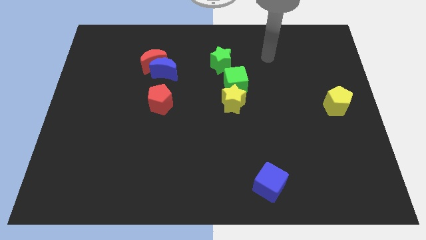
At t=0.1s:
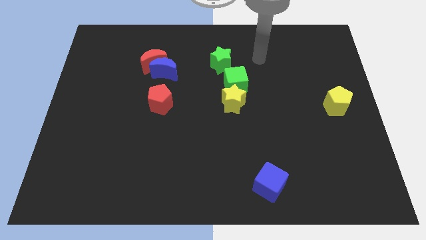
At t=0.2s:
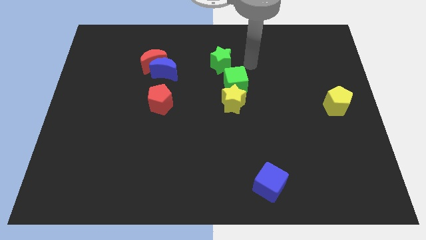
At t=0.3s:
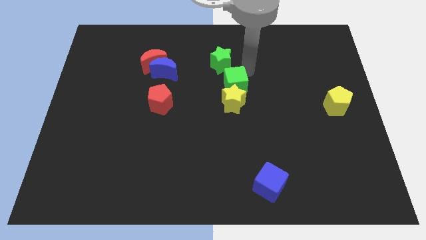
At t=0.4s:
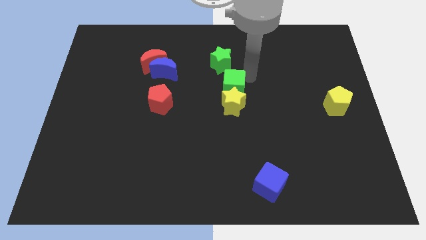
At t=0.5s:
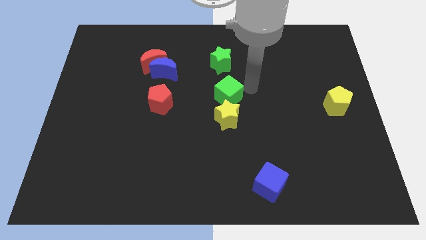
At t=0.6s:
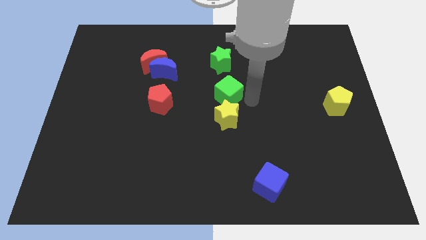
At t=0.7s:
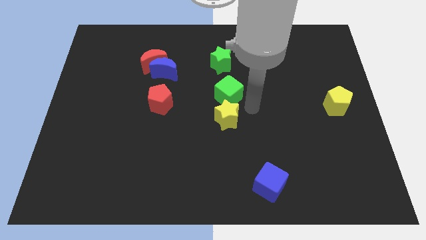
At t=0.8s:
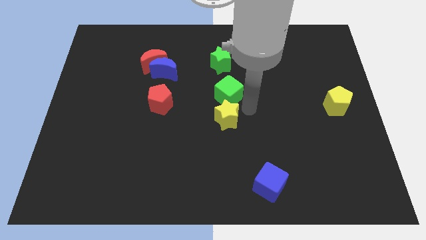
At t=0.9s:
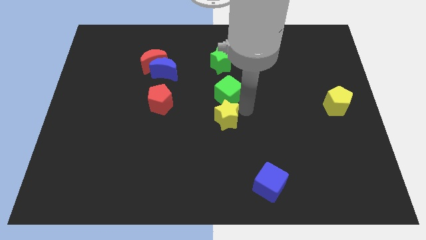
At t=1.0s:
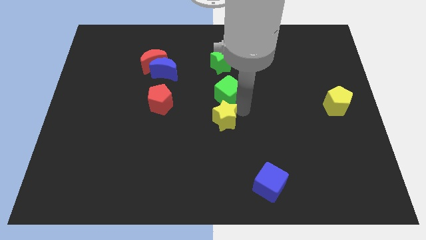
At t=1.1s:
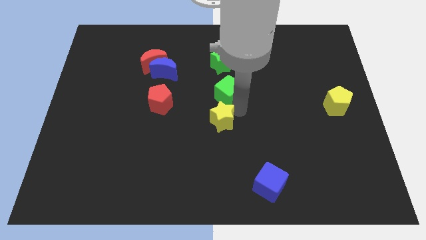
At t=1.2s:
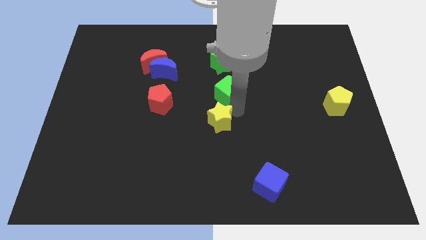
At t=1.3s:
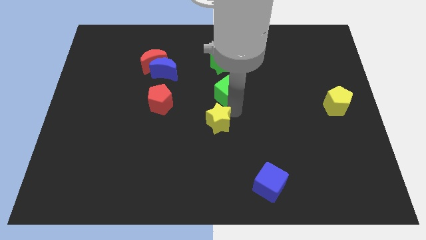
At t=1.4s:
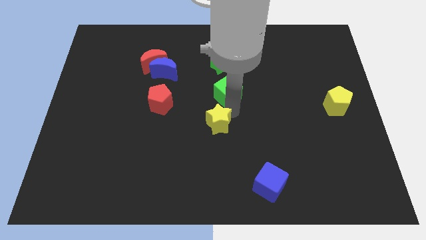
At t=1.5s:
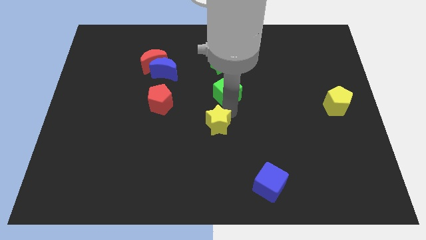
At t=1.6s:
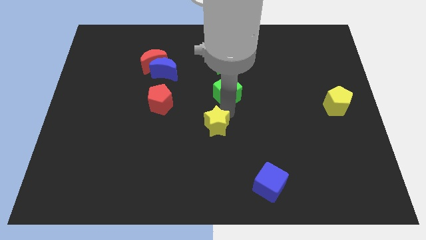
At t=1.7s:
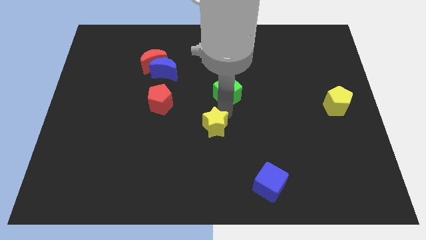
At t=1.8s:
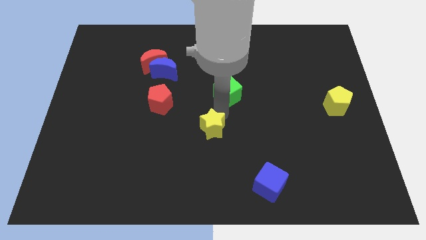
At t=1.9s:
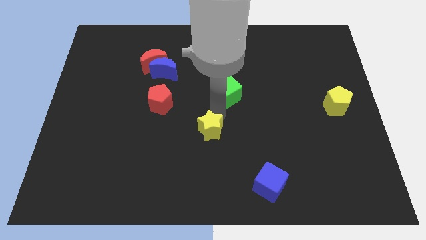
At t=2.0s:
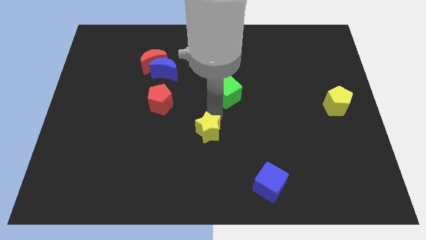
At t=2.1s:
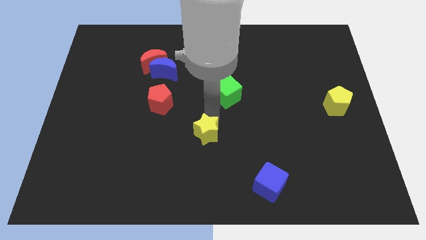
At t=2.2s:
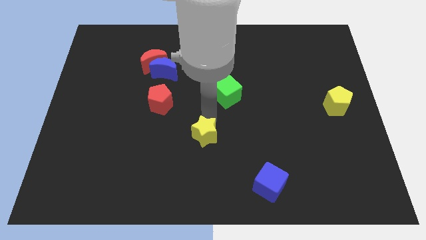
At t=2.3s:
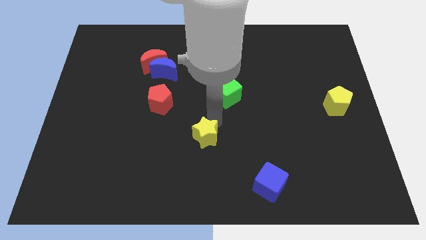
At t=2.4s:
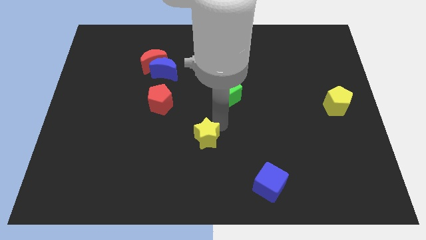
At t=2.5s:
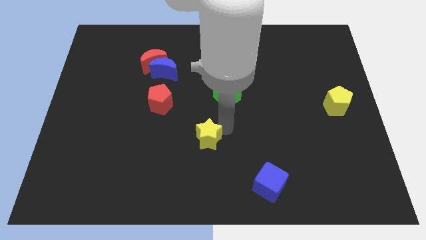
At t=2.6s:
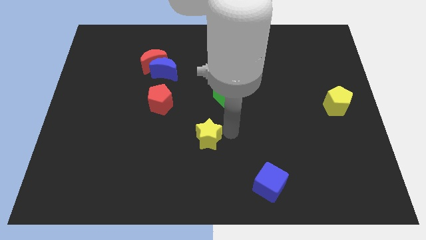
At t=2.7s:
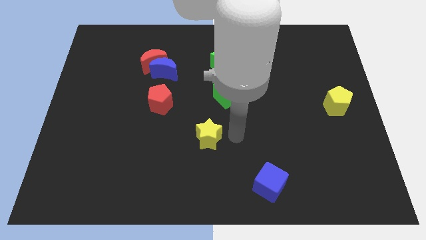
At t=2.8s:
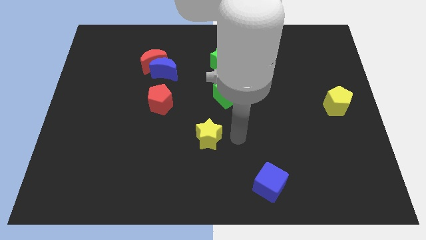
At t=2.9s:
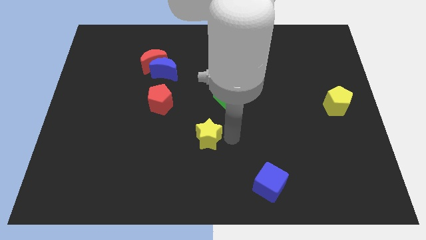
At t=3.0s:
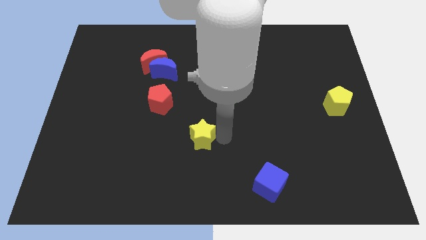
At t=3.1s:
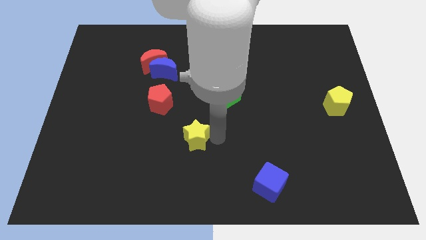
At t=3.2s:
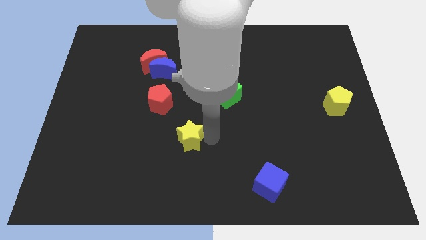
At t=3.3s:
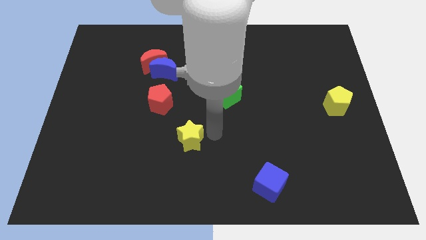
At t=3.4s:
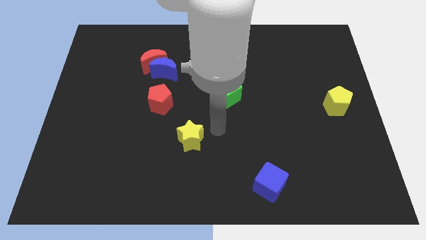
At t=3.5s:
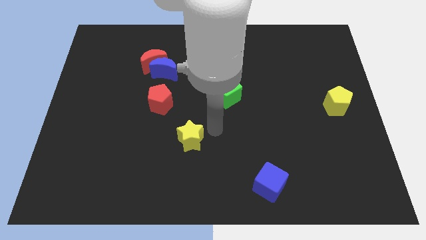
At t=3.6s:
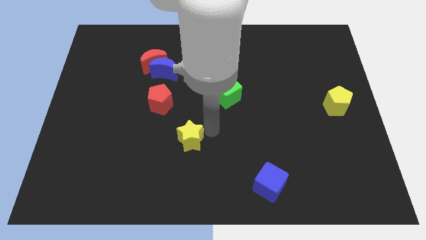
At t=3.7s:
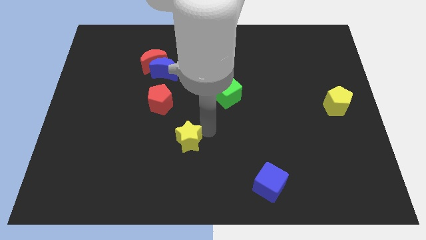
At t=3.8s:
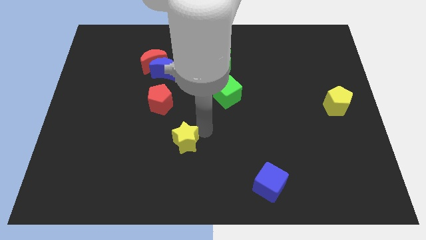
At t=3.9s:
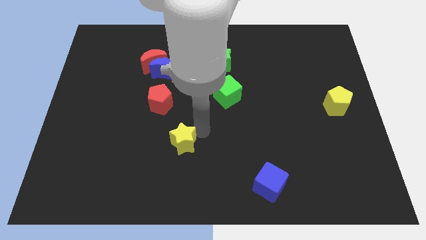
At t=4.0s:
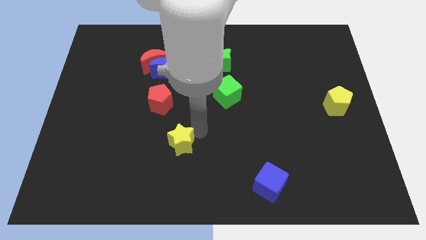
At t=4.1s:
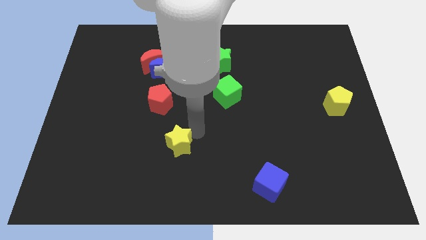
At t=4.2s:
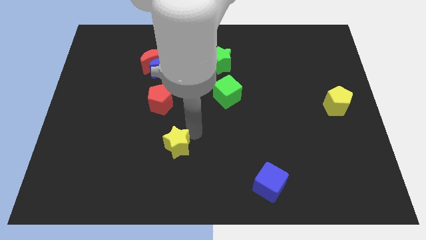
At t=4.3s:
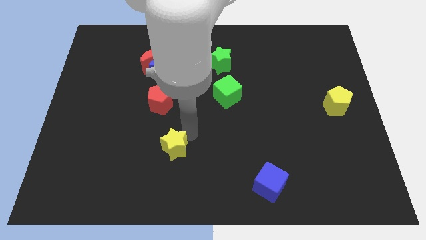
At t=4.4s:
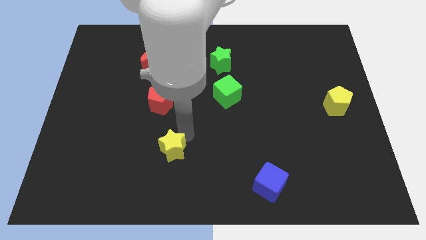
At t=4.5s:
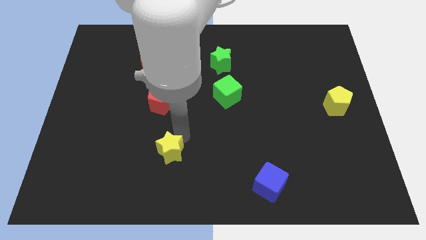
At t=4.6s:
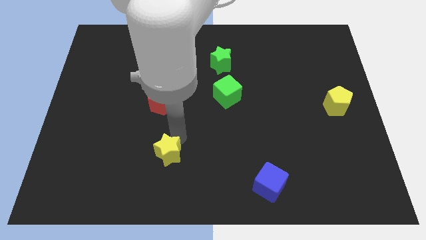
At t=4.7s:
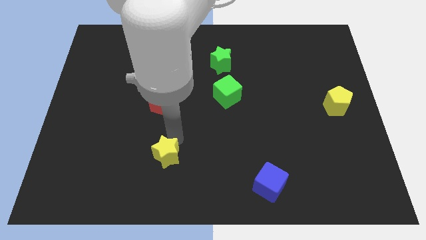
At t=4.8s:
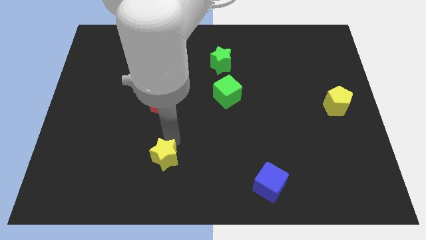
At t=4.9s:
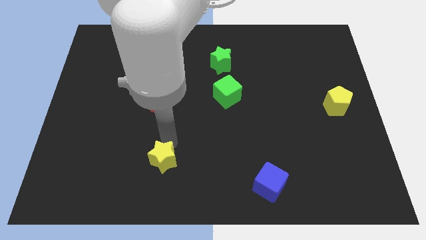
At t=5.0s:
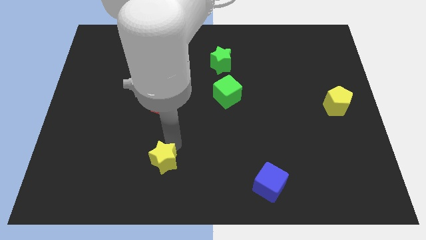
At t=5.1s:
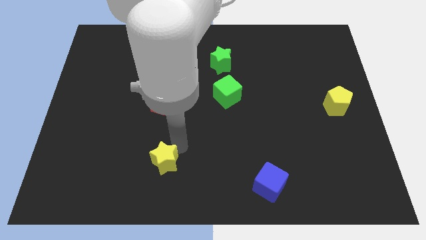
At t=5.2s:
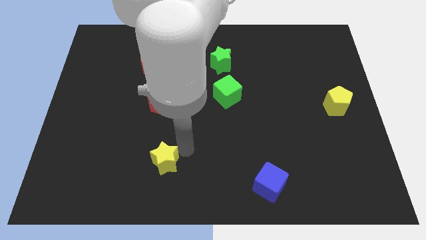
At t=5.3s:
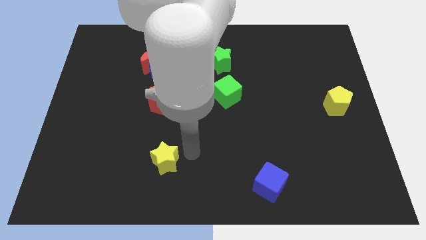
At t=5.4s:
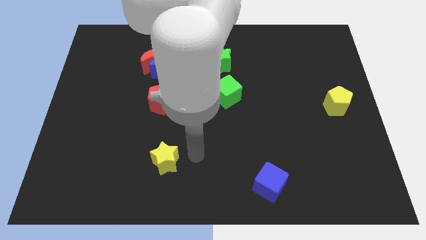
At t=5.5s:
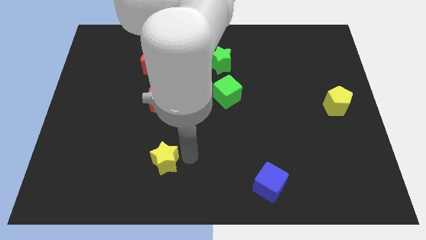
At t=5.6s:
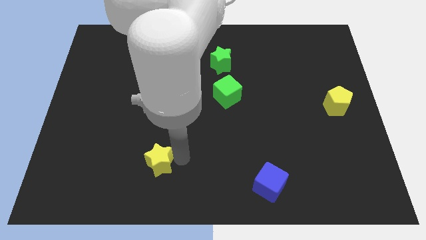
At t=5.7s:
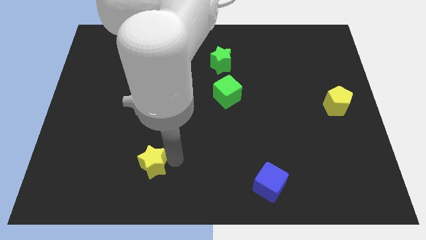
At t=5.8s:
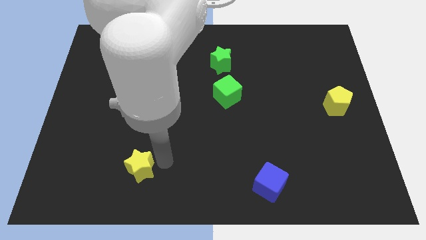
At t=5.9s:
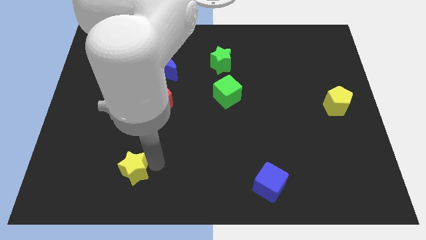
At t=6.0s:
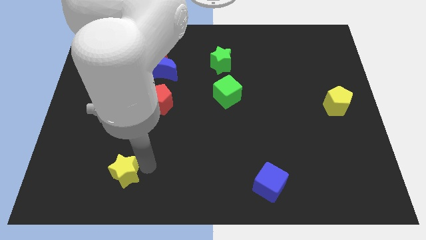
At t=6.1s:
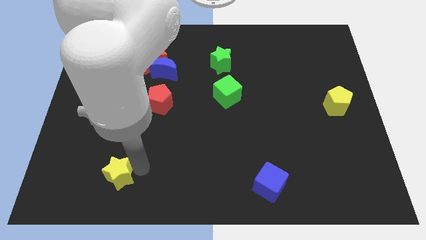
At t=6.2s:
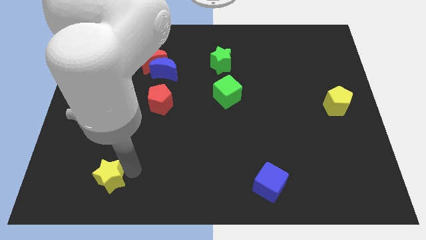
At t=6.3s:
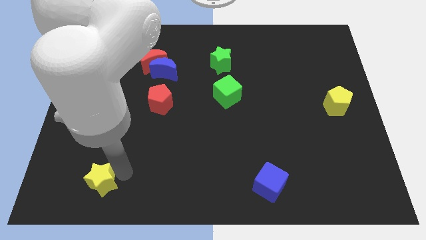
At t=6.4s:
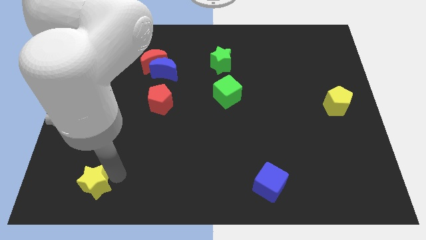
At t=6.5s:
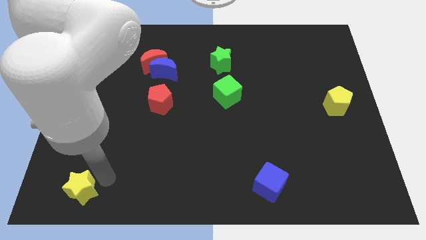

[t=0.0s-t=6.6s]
slide the yellow star to the bottom left corner
